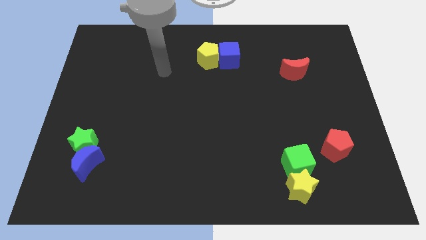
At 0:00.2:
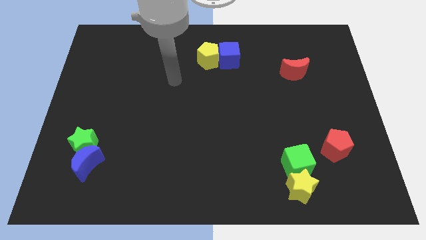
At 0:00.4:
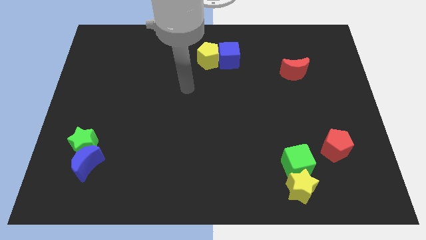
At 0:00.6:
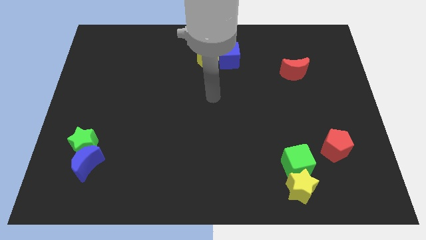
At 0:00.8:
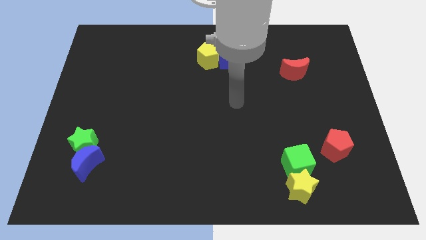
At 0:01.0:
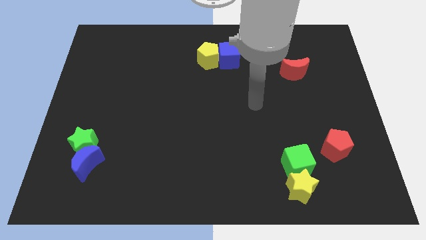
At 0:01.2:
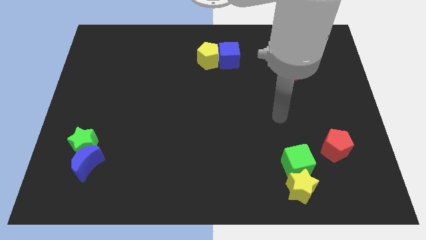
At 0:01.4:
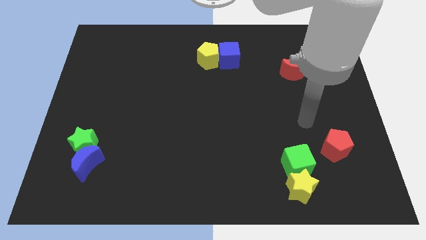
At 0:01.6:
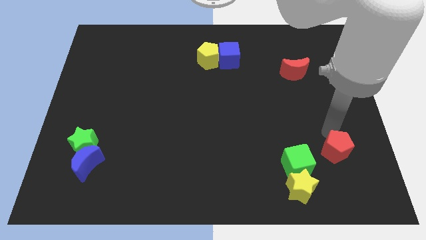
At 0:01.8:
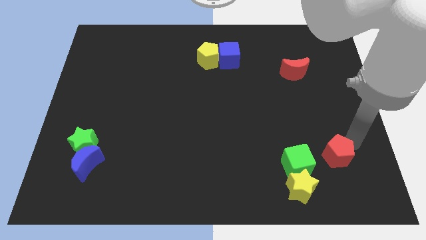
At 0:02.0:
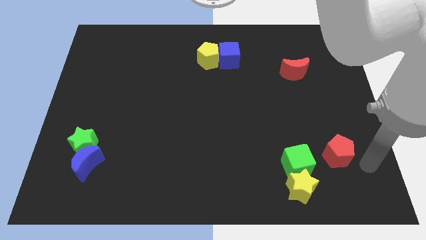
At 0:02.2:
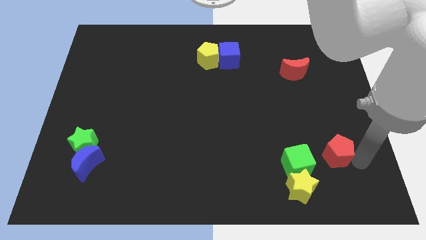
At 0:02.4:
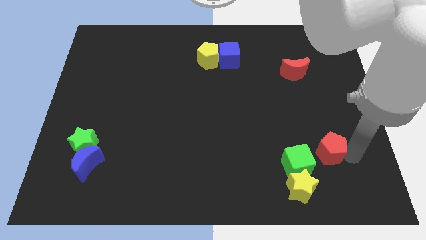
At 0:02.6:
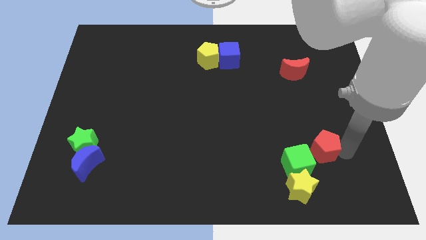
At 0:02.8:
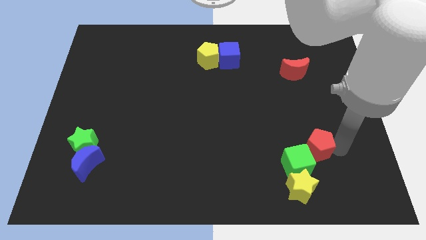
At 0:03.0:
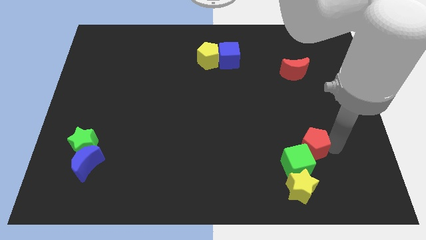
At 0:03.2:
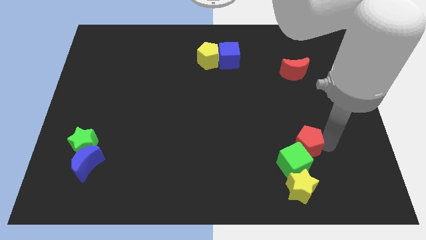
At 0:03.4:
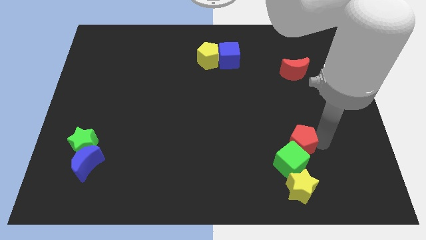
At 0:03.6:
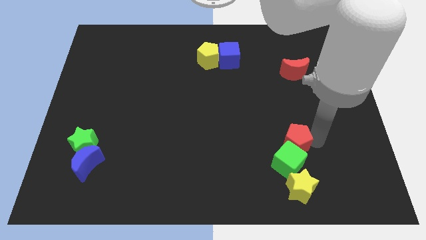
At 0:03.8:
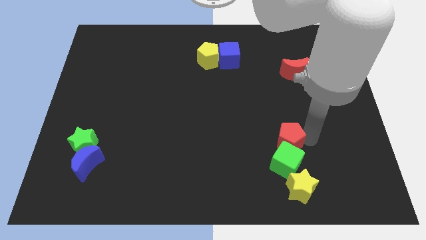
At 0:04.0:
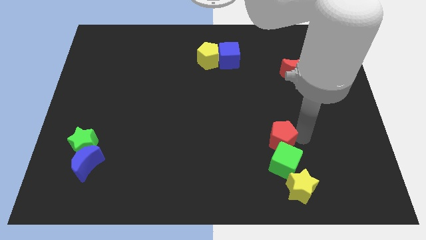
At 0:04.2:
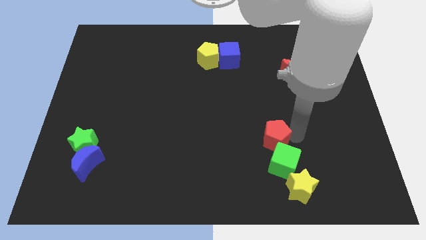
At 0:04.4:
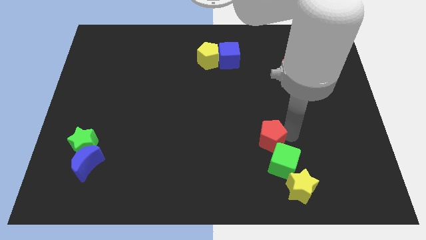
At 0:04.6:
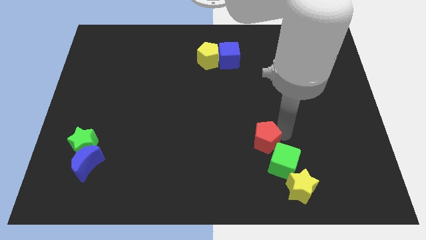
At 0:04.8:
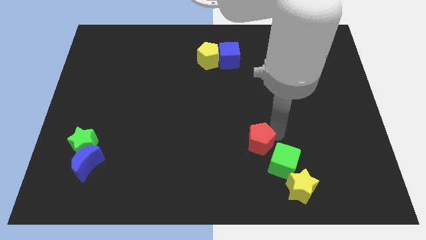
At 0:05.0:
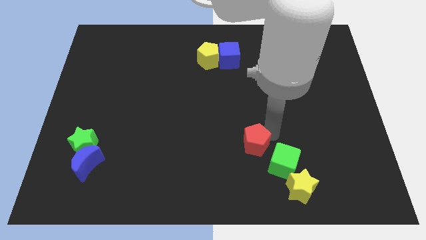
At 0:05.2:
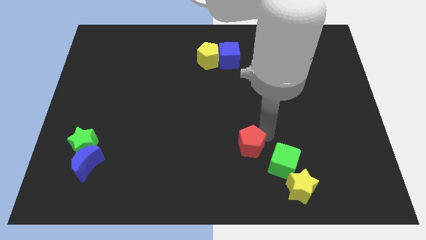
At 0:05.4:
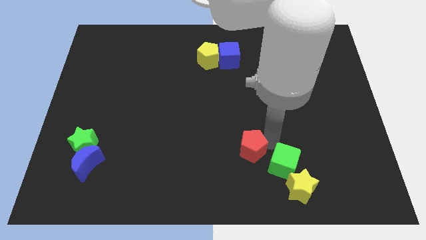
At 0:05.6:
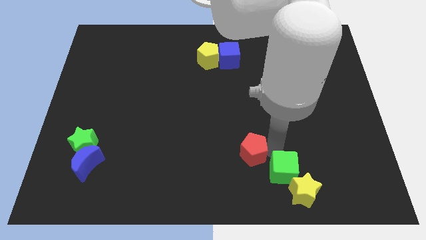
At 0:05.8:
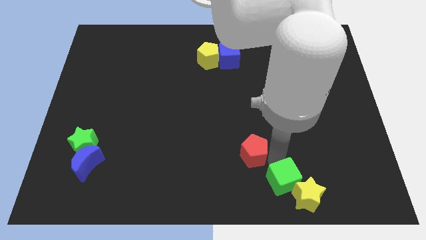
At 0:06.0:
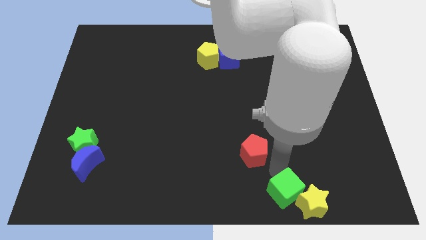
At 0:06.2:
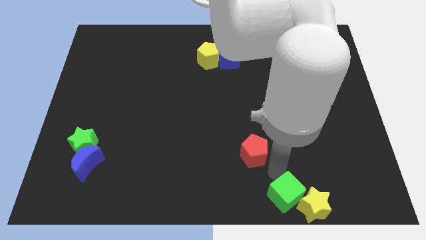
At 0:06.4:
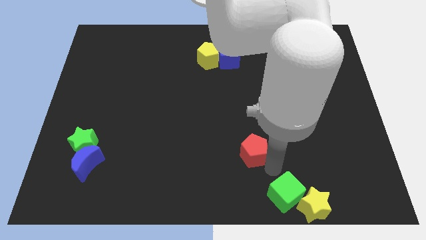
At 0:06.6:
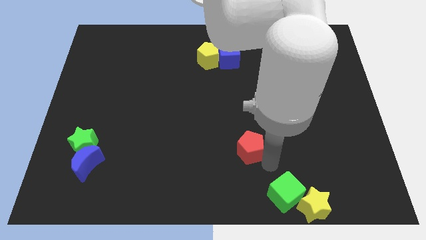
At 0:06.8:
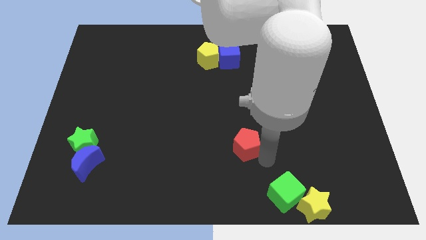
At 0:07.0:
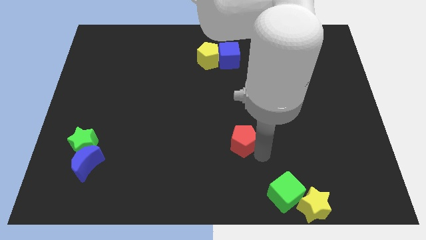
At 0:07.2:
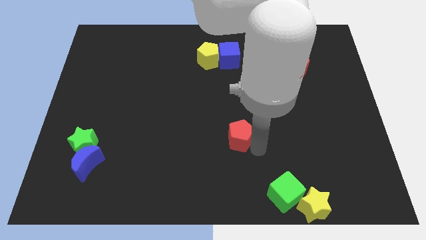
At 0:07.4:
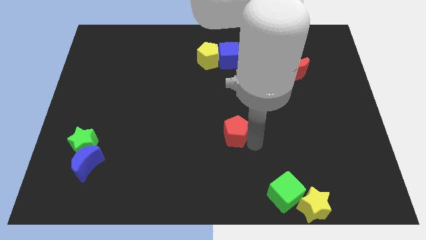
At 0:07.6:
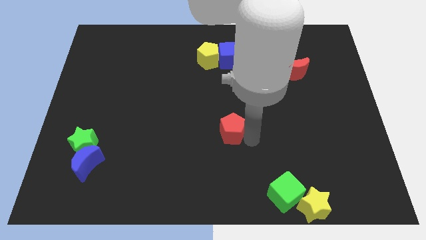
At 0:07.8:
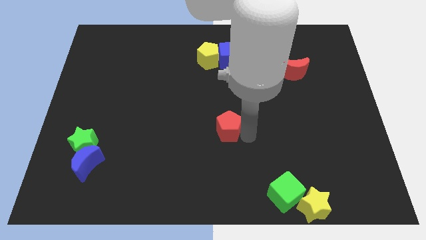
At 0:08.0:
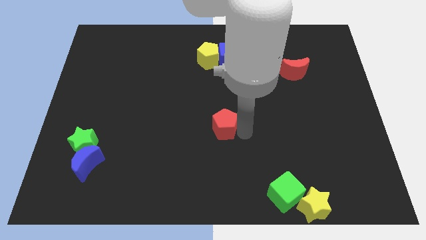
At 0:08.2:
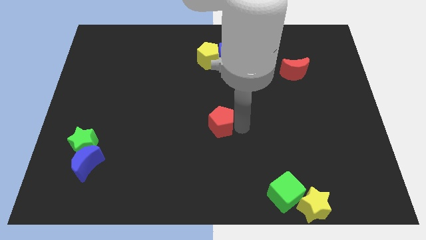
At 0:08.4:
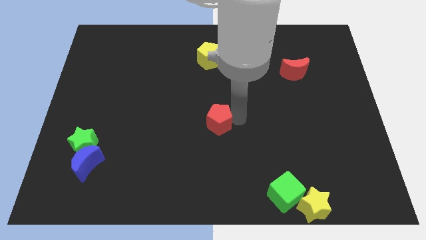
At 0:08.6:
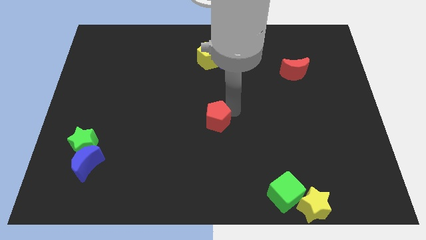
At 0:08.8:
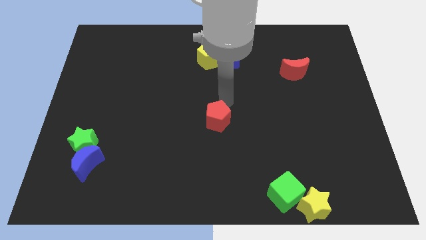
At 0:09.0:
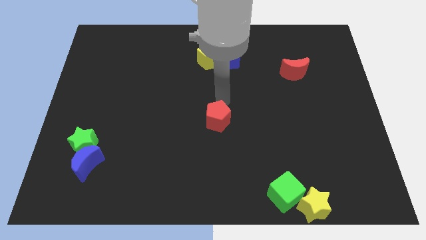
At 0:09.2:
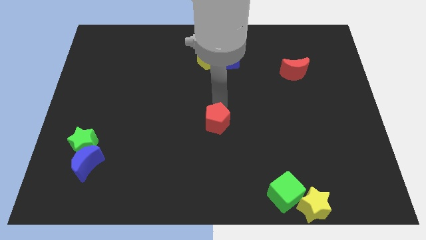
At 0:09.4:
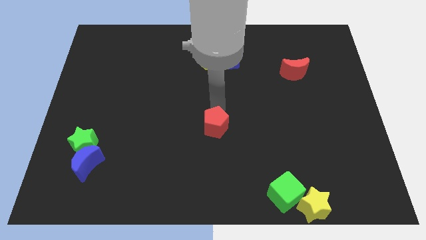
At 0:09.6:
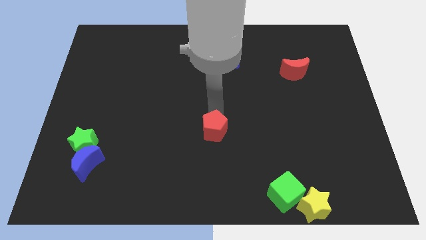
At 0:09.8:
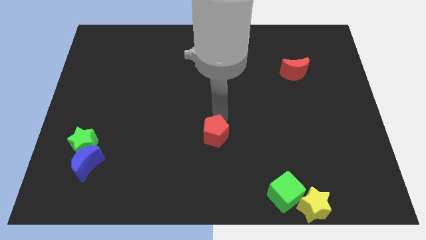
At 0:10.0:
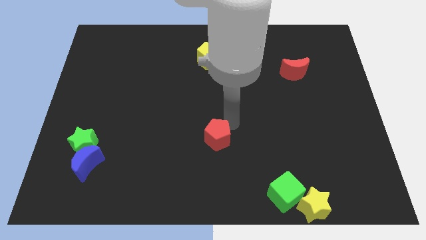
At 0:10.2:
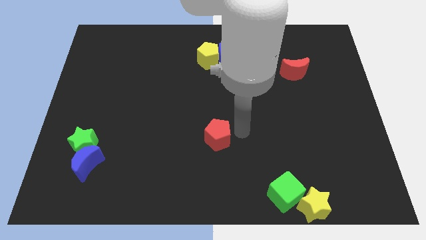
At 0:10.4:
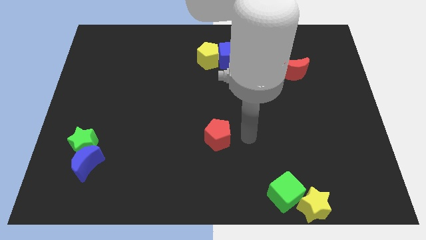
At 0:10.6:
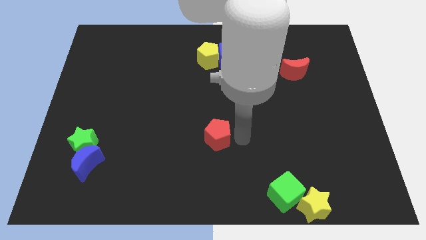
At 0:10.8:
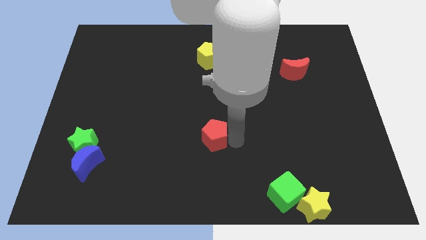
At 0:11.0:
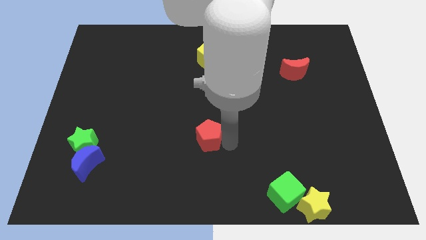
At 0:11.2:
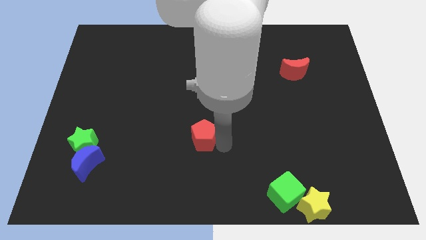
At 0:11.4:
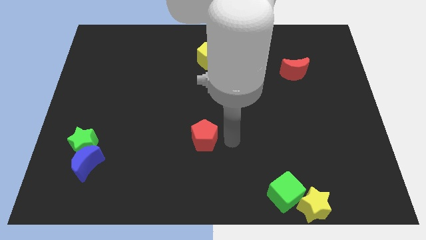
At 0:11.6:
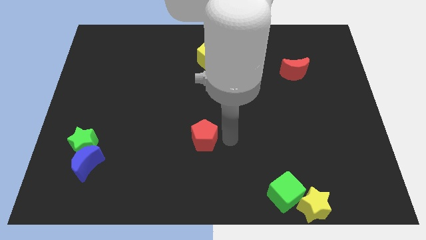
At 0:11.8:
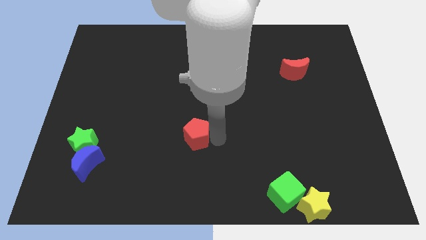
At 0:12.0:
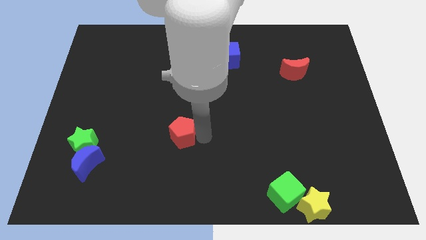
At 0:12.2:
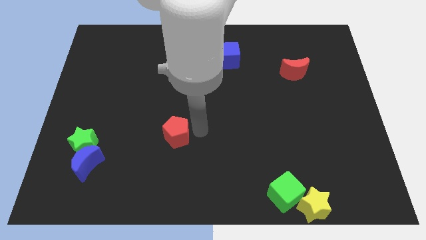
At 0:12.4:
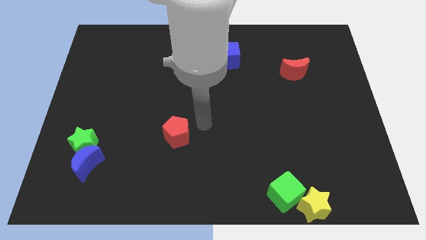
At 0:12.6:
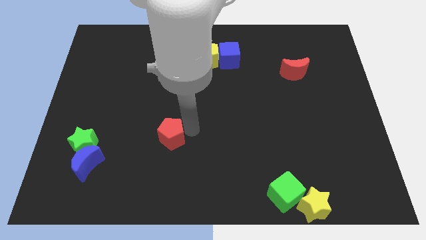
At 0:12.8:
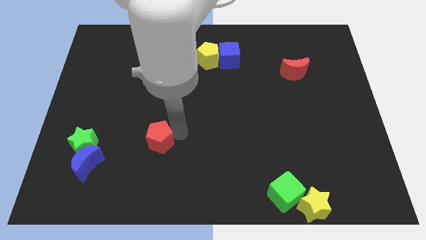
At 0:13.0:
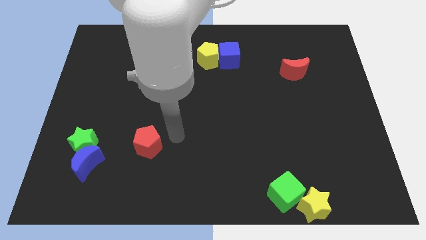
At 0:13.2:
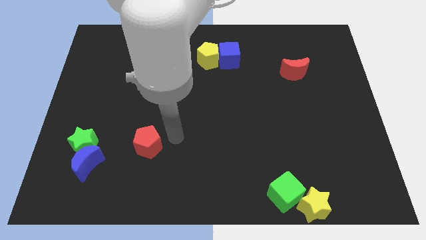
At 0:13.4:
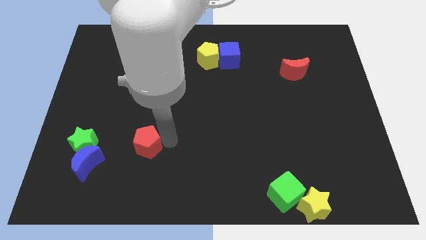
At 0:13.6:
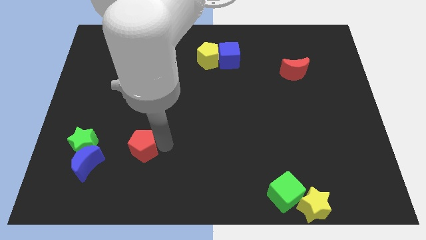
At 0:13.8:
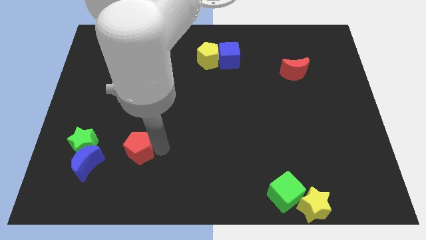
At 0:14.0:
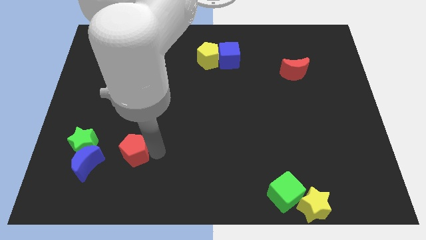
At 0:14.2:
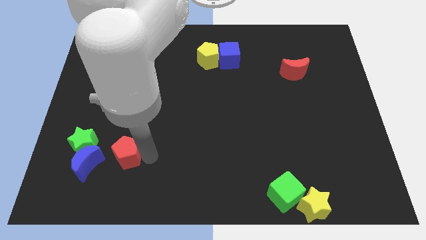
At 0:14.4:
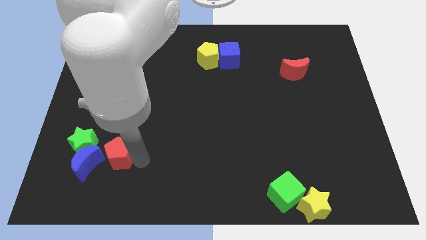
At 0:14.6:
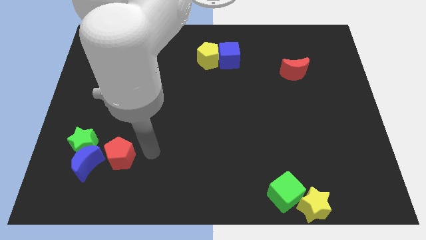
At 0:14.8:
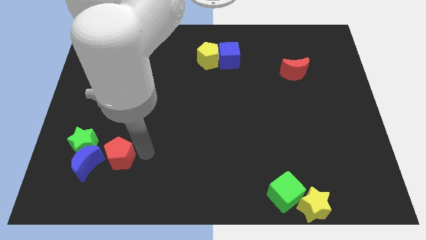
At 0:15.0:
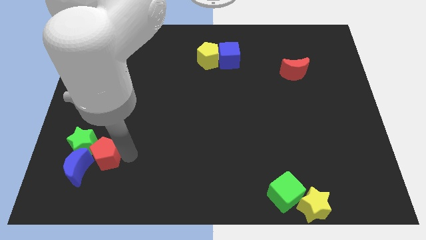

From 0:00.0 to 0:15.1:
push the red pentagon close to the blue moon
